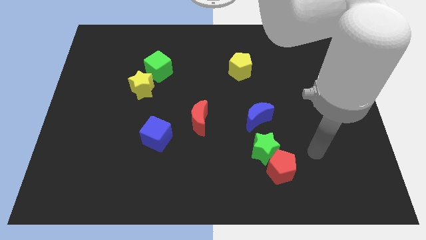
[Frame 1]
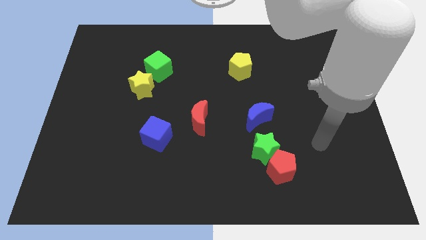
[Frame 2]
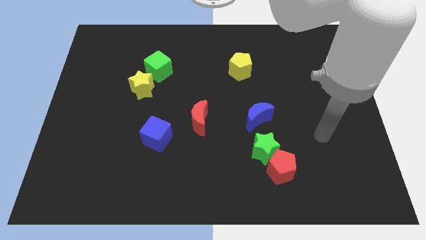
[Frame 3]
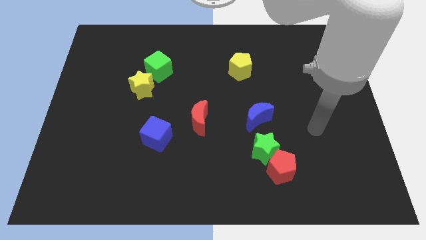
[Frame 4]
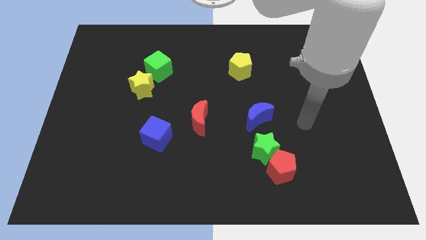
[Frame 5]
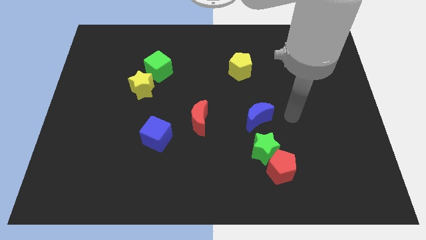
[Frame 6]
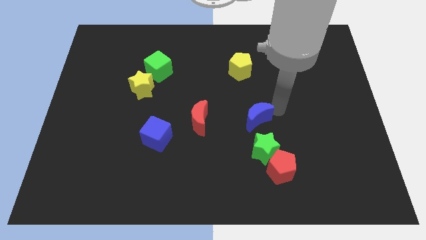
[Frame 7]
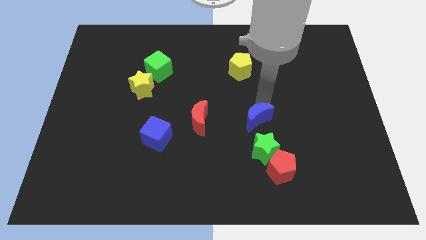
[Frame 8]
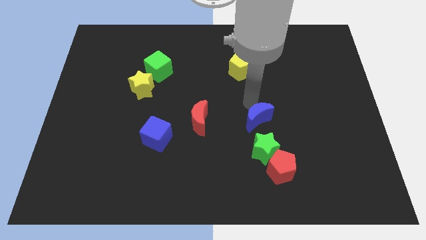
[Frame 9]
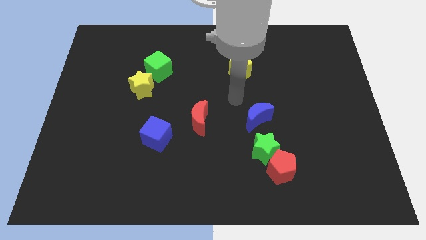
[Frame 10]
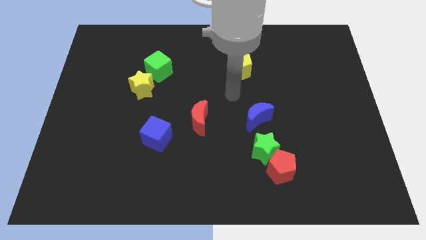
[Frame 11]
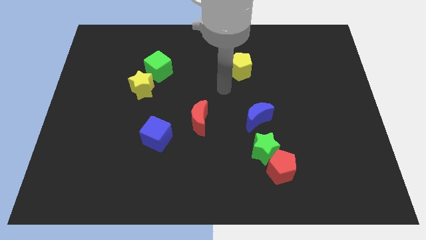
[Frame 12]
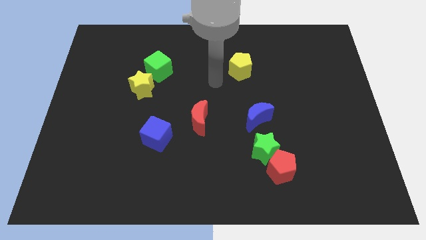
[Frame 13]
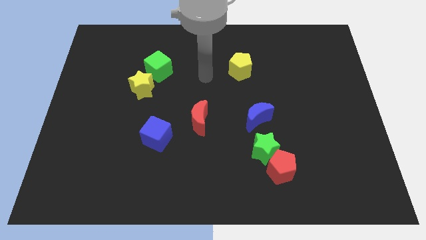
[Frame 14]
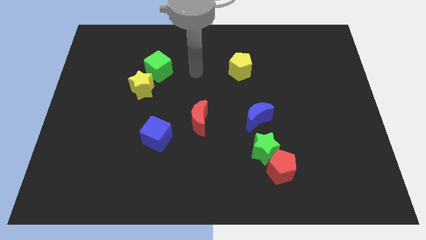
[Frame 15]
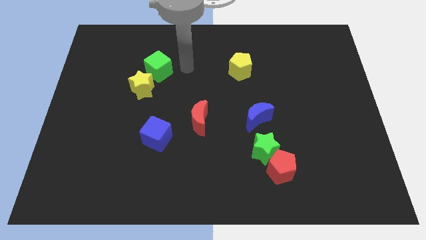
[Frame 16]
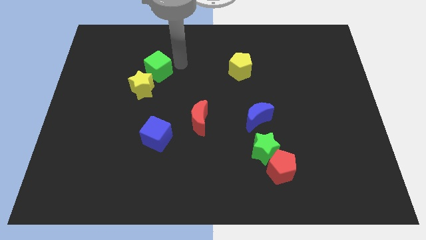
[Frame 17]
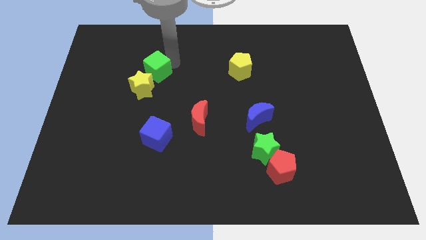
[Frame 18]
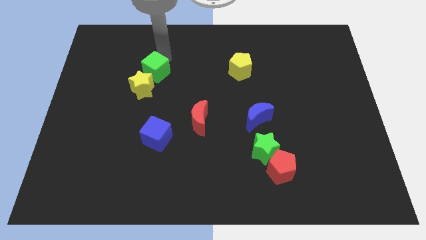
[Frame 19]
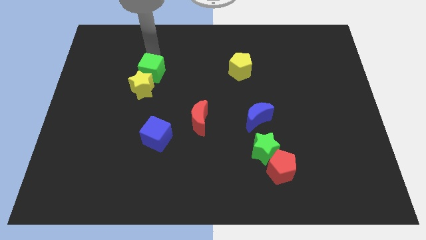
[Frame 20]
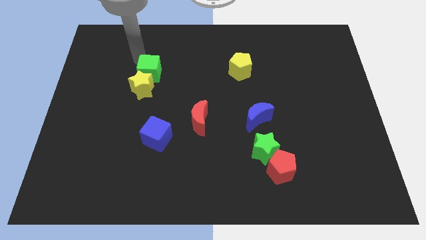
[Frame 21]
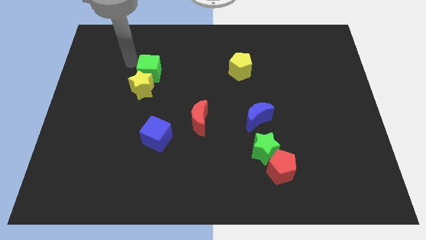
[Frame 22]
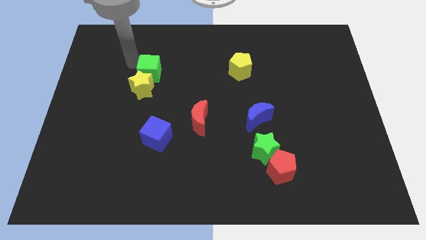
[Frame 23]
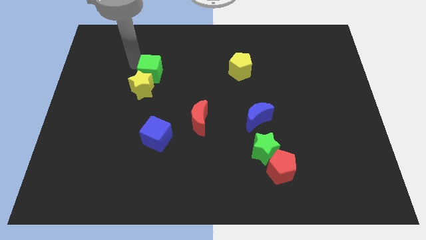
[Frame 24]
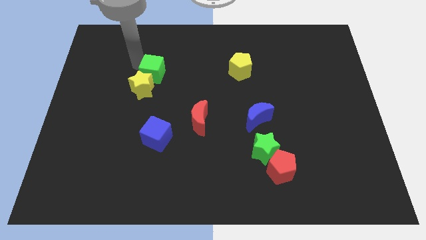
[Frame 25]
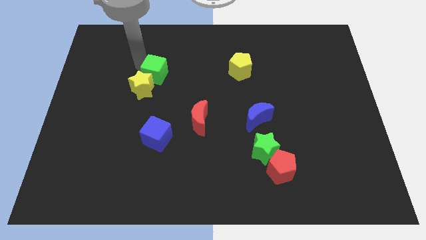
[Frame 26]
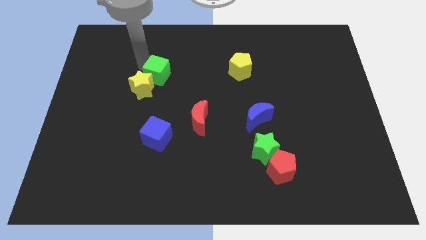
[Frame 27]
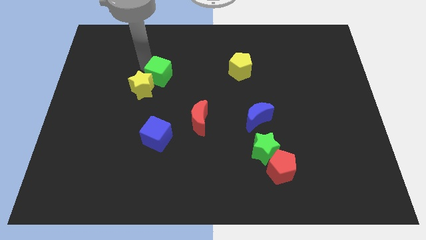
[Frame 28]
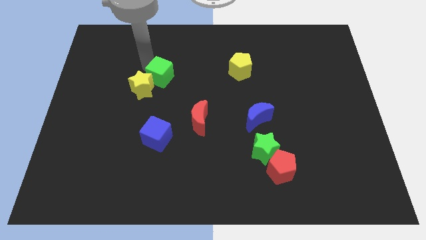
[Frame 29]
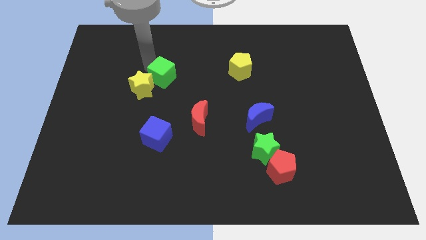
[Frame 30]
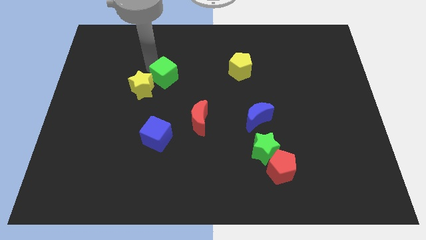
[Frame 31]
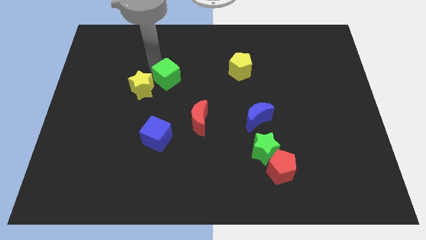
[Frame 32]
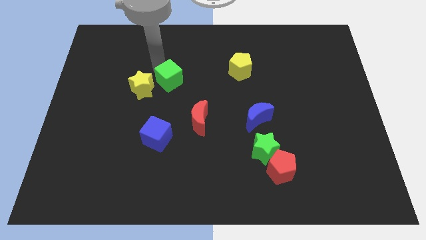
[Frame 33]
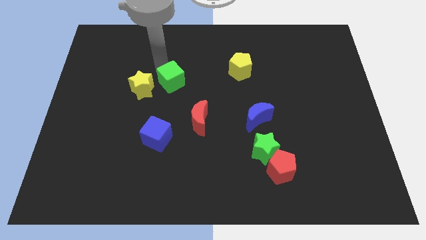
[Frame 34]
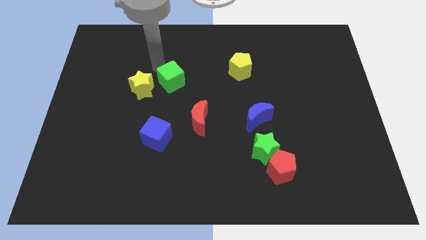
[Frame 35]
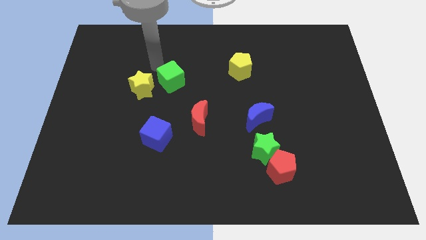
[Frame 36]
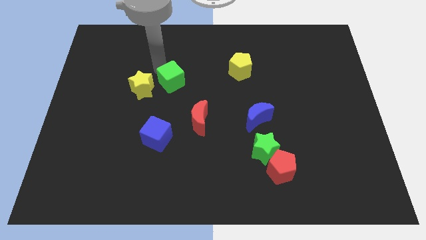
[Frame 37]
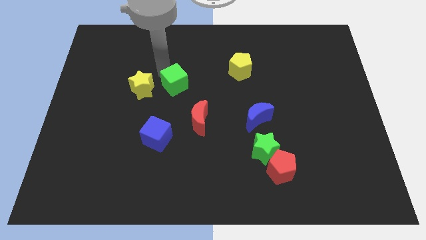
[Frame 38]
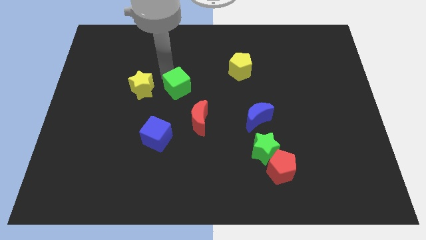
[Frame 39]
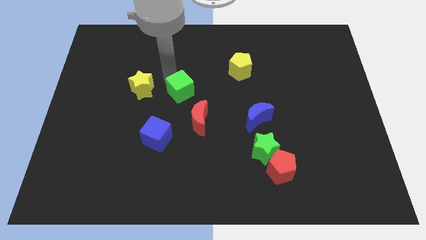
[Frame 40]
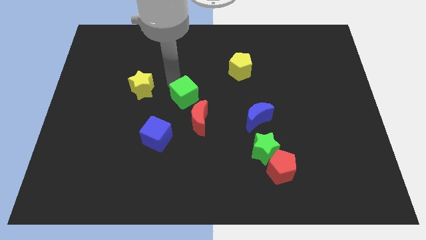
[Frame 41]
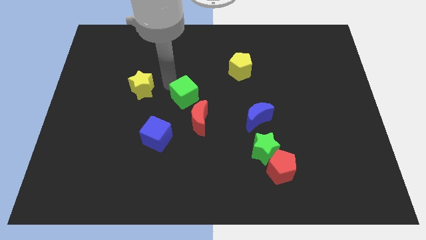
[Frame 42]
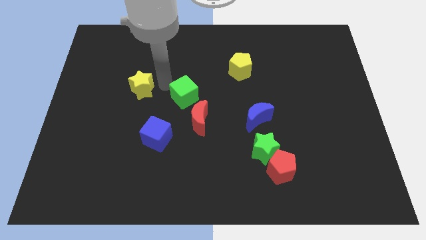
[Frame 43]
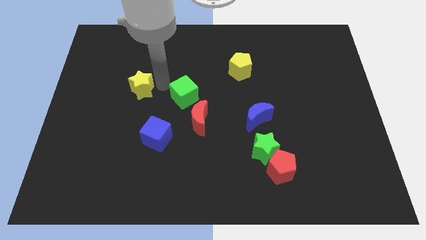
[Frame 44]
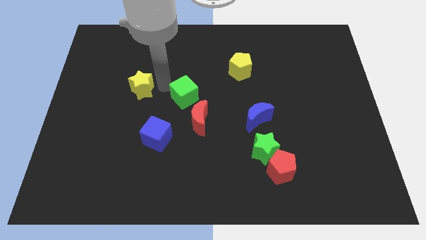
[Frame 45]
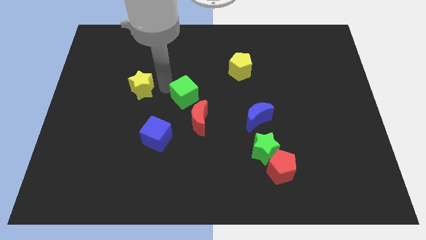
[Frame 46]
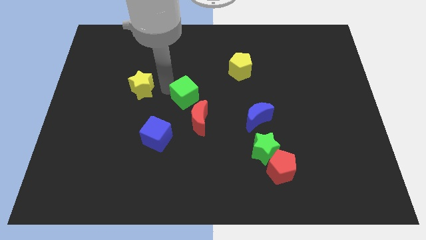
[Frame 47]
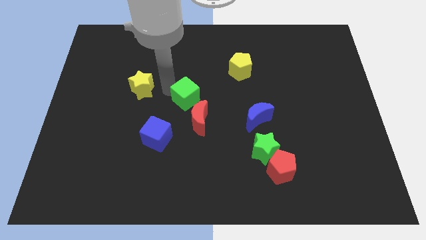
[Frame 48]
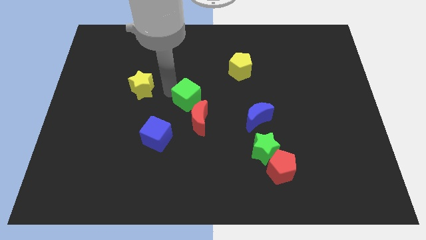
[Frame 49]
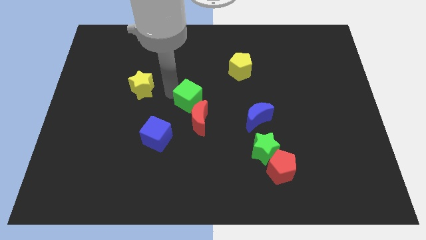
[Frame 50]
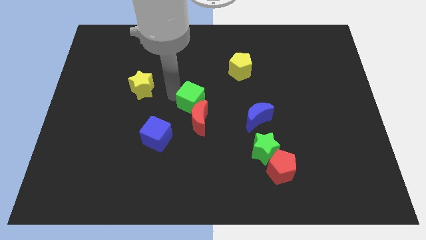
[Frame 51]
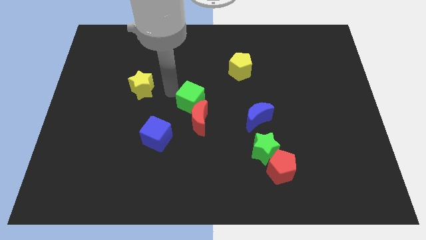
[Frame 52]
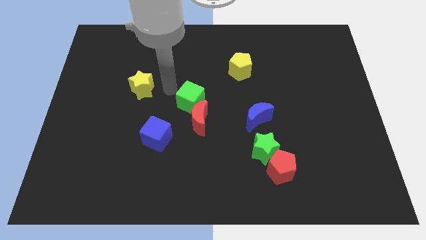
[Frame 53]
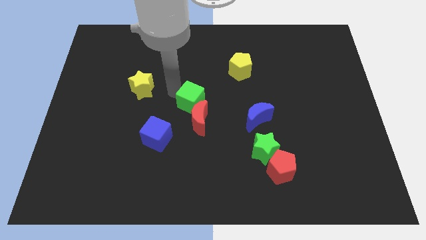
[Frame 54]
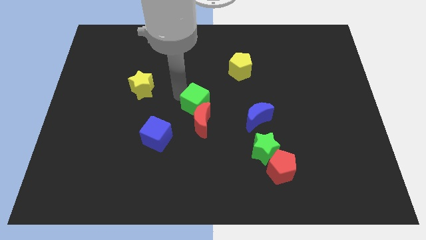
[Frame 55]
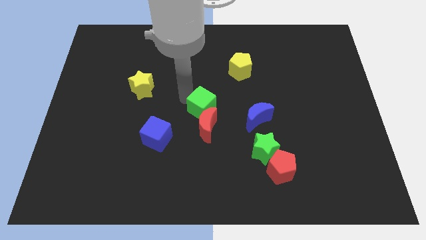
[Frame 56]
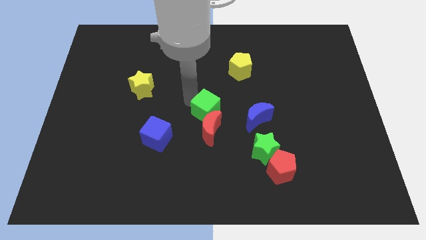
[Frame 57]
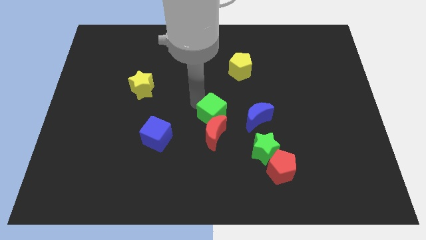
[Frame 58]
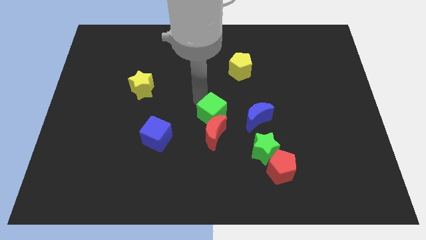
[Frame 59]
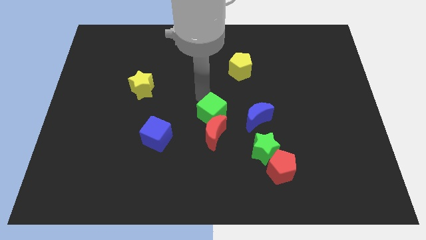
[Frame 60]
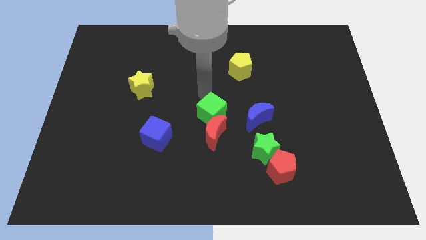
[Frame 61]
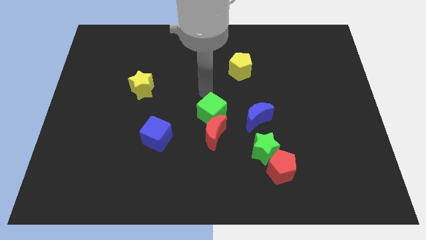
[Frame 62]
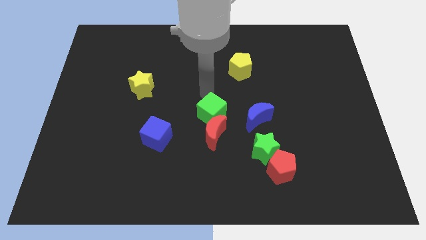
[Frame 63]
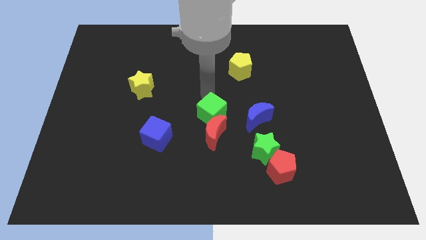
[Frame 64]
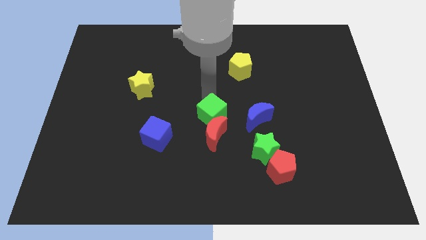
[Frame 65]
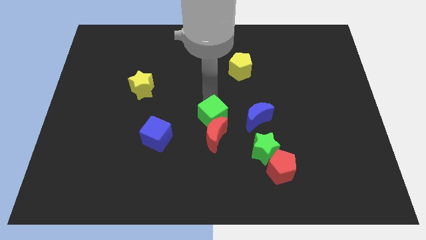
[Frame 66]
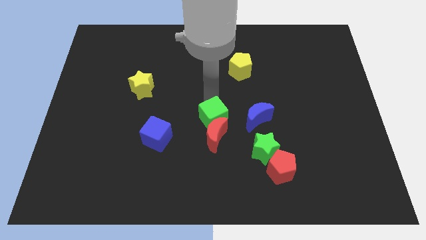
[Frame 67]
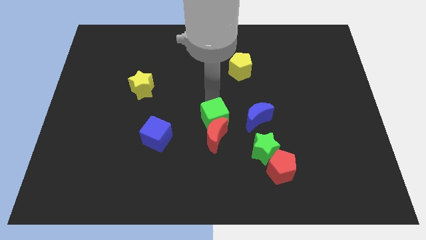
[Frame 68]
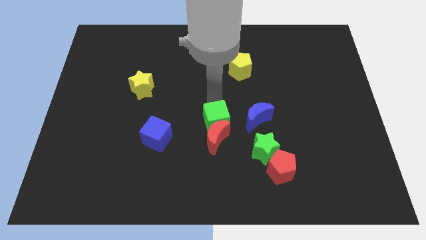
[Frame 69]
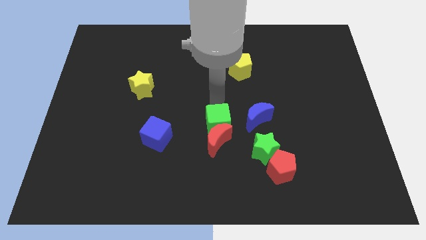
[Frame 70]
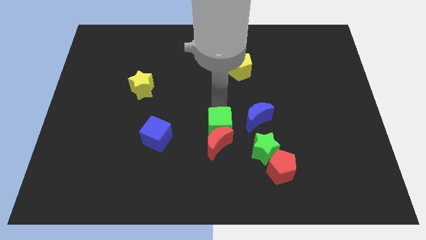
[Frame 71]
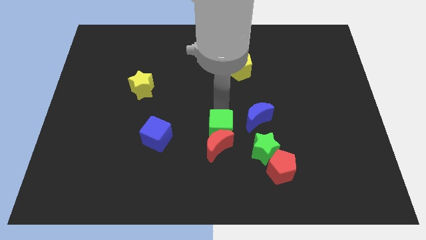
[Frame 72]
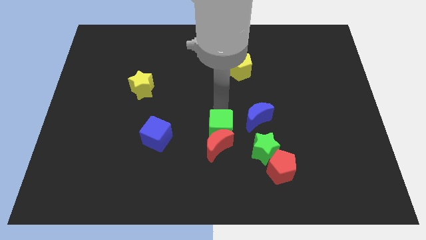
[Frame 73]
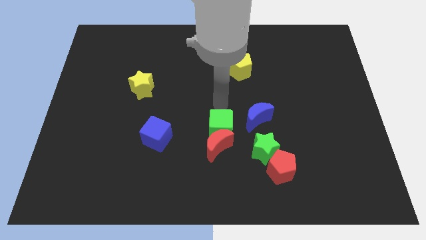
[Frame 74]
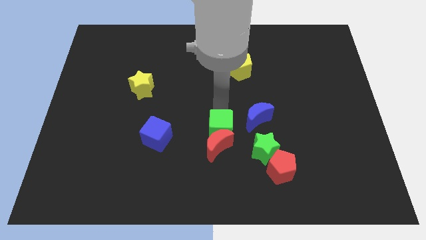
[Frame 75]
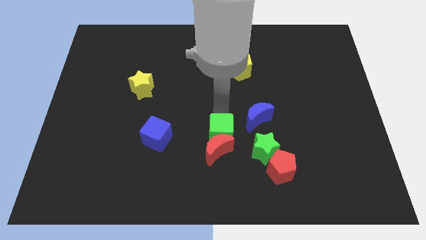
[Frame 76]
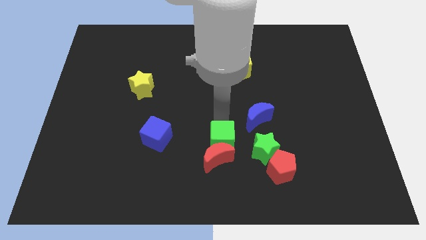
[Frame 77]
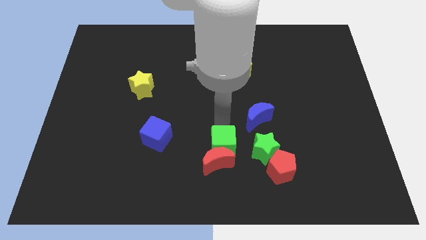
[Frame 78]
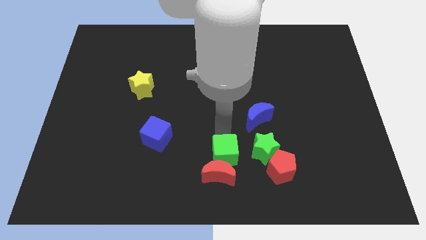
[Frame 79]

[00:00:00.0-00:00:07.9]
slide the green cube to the bottom
